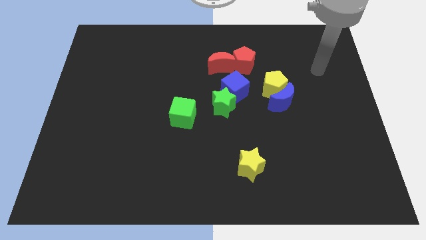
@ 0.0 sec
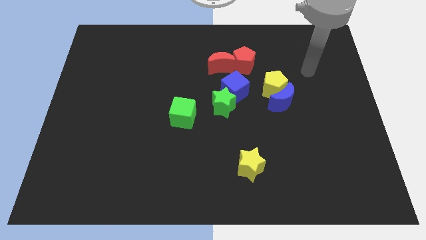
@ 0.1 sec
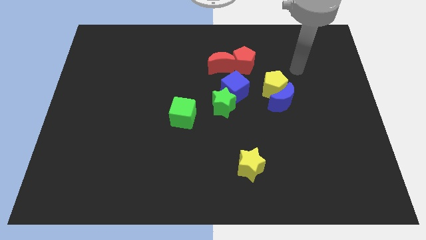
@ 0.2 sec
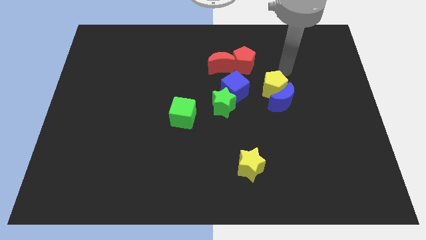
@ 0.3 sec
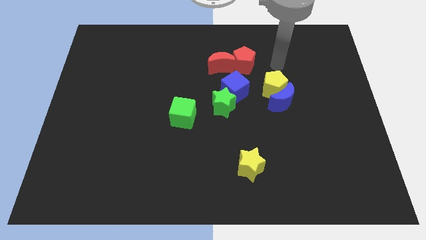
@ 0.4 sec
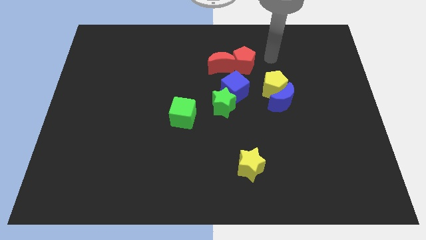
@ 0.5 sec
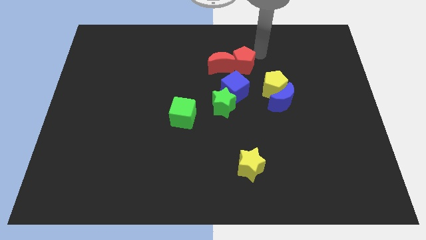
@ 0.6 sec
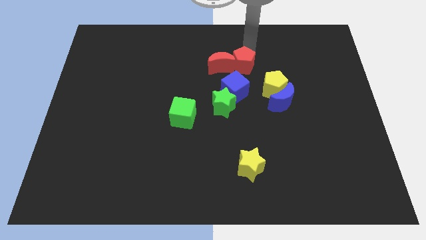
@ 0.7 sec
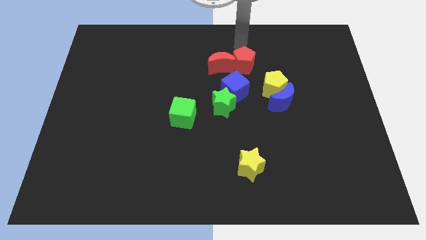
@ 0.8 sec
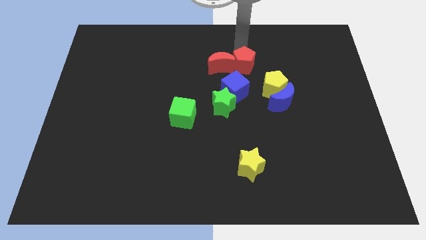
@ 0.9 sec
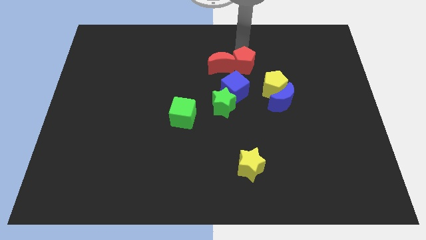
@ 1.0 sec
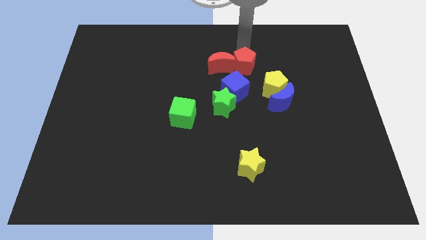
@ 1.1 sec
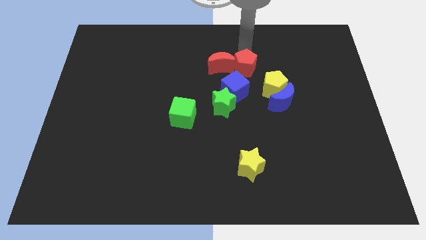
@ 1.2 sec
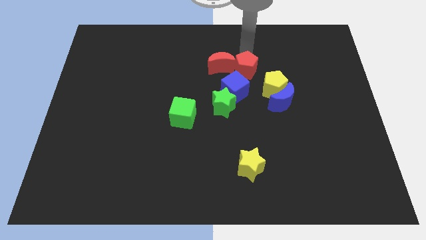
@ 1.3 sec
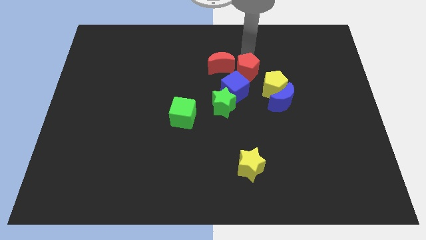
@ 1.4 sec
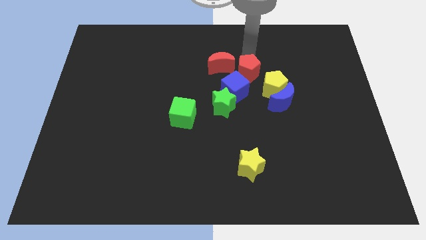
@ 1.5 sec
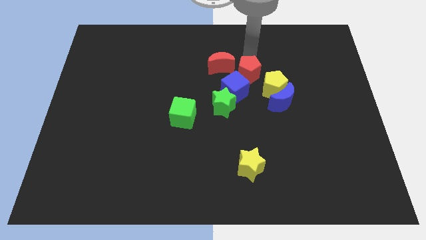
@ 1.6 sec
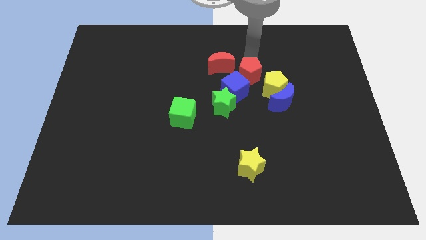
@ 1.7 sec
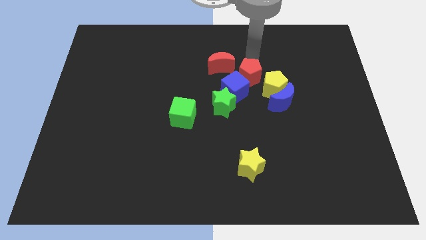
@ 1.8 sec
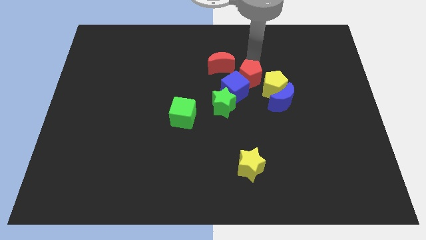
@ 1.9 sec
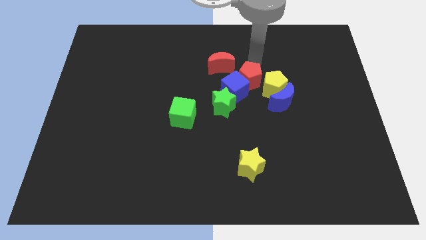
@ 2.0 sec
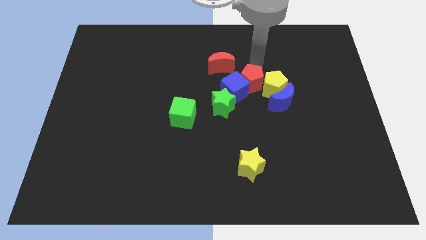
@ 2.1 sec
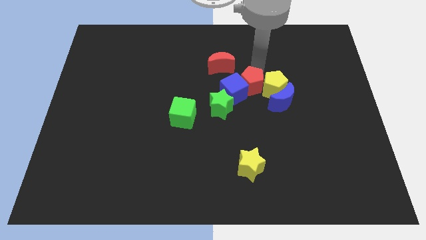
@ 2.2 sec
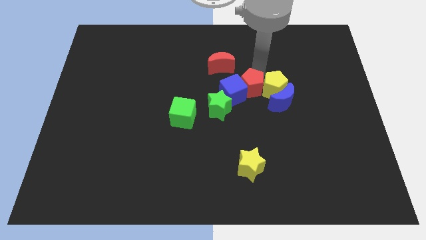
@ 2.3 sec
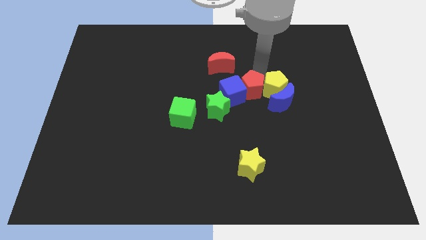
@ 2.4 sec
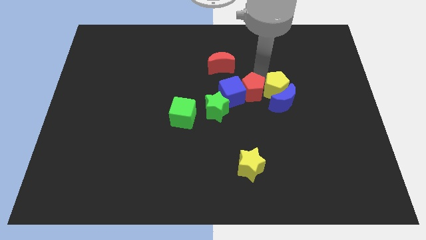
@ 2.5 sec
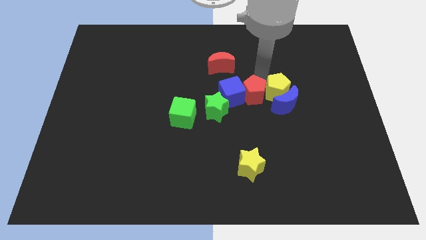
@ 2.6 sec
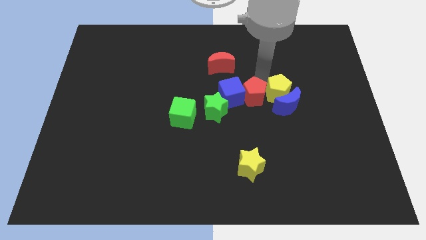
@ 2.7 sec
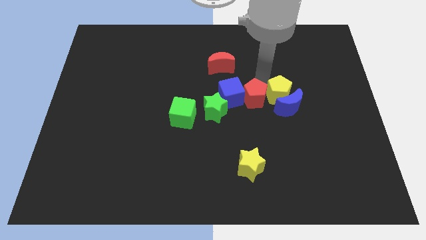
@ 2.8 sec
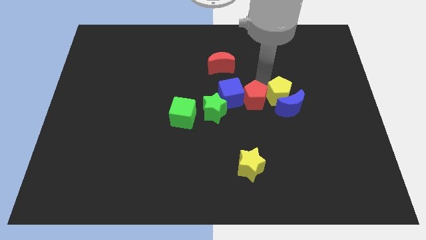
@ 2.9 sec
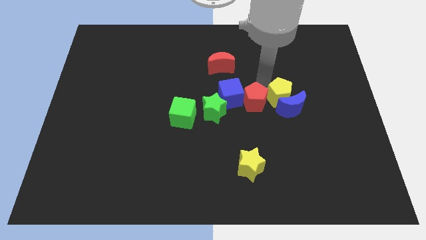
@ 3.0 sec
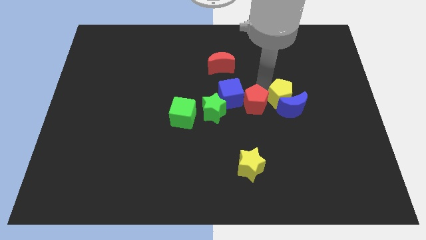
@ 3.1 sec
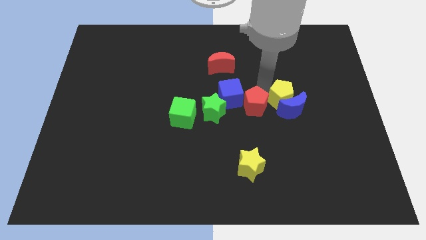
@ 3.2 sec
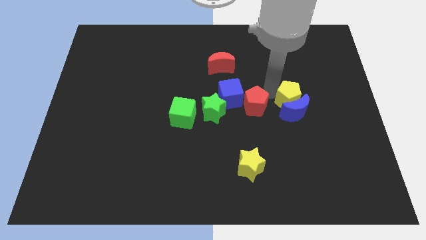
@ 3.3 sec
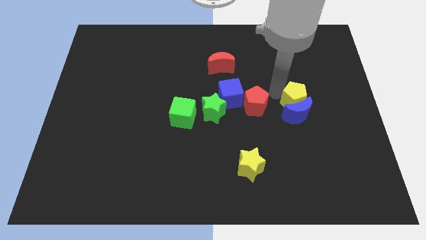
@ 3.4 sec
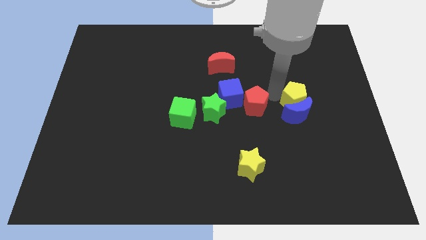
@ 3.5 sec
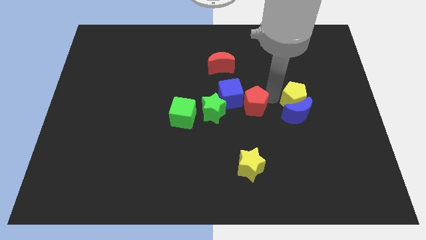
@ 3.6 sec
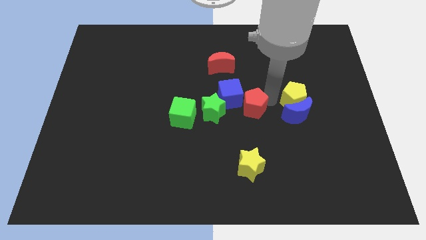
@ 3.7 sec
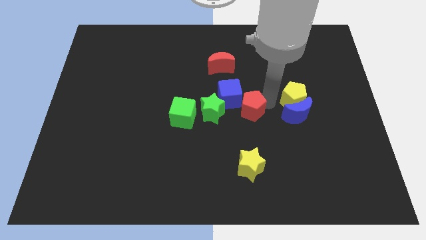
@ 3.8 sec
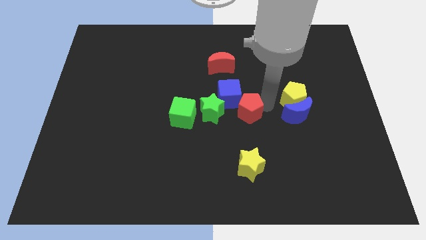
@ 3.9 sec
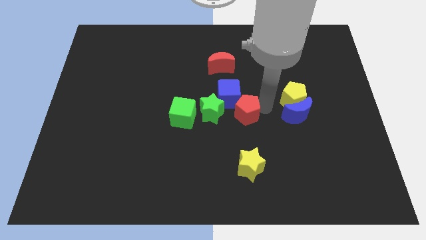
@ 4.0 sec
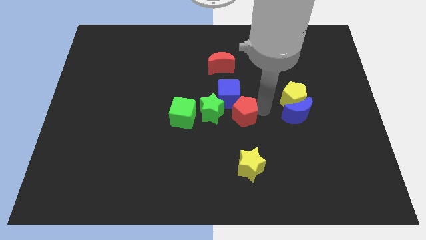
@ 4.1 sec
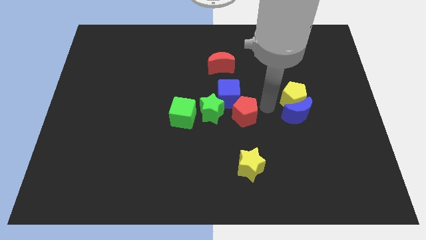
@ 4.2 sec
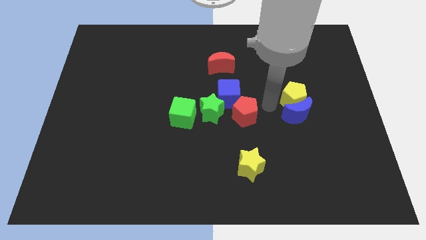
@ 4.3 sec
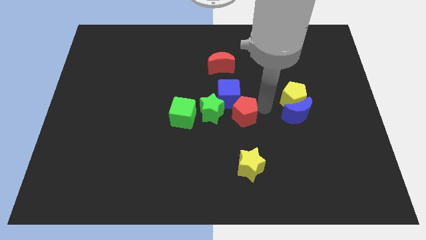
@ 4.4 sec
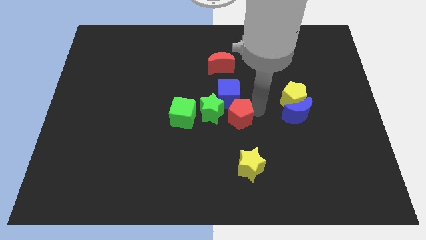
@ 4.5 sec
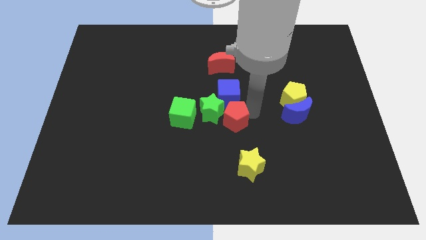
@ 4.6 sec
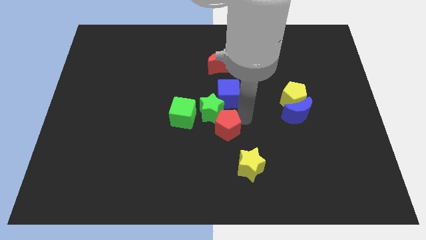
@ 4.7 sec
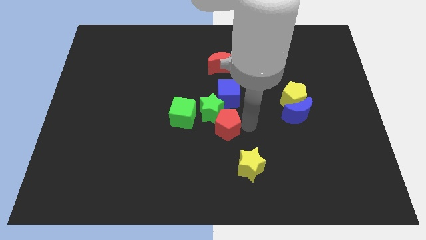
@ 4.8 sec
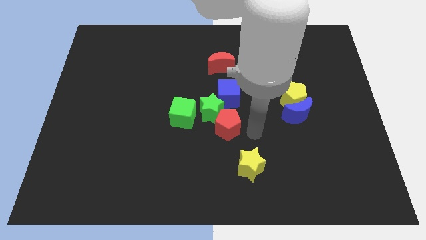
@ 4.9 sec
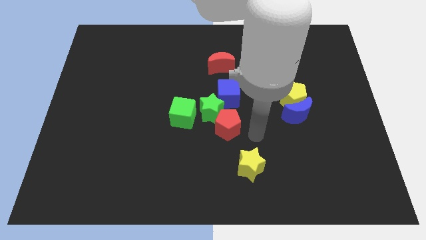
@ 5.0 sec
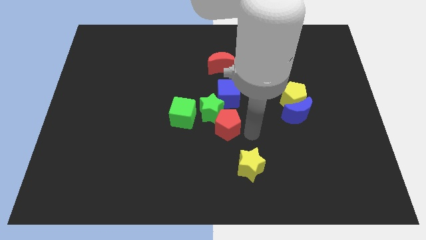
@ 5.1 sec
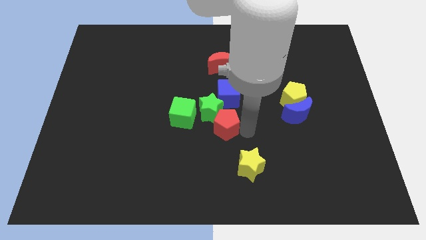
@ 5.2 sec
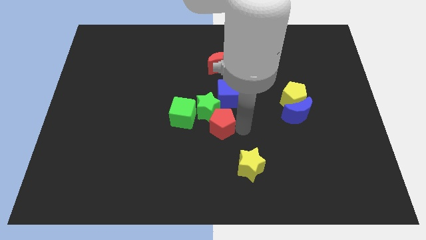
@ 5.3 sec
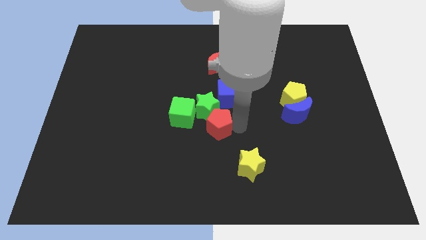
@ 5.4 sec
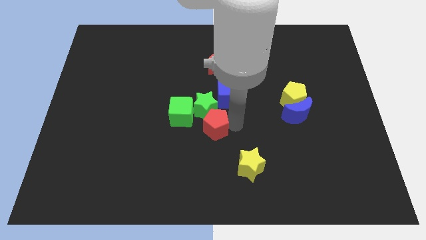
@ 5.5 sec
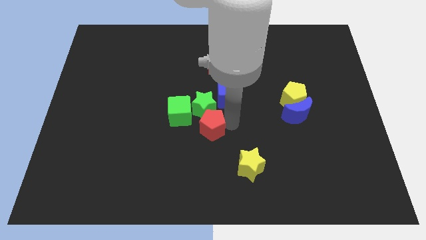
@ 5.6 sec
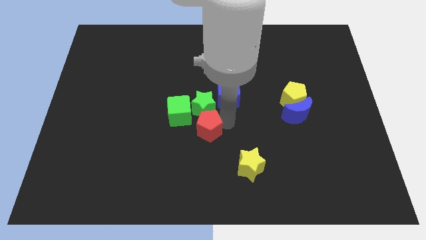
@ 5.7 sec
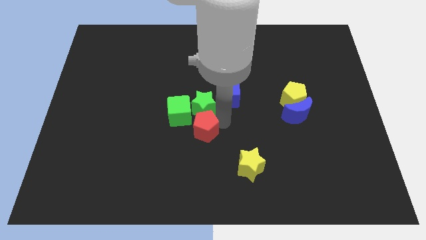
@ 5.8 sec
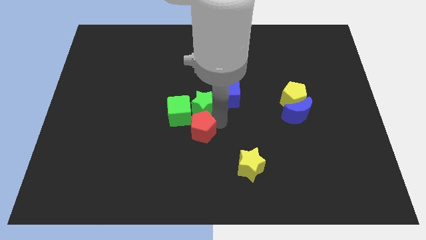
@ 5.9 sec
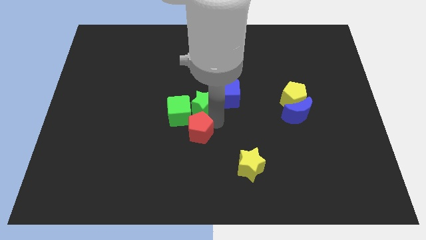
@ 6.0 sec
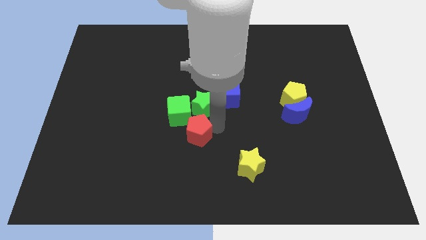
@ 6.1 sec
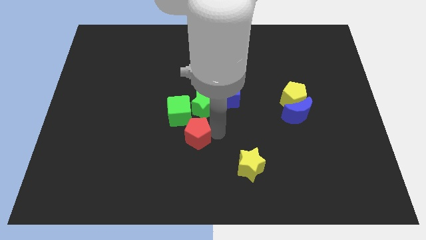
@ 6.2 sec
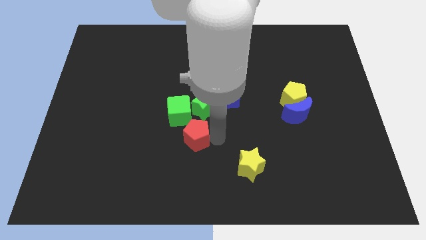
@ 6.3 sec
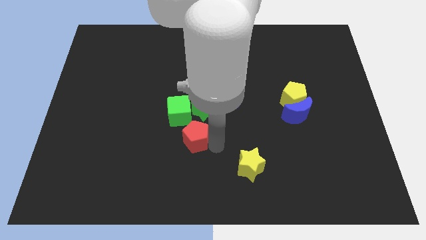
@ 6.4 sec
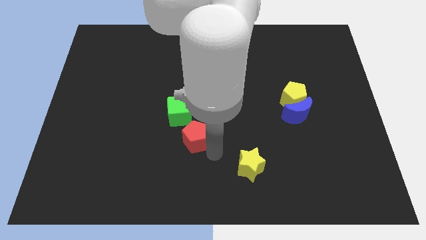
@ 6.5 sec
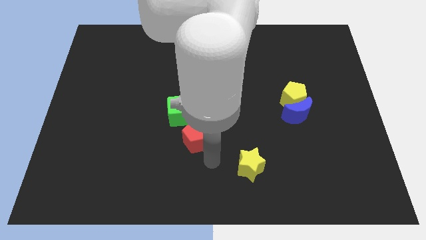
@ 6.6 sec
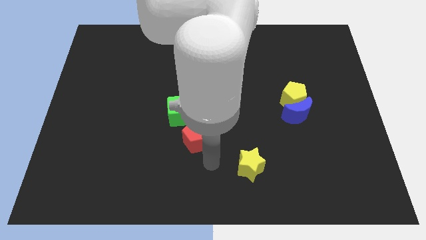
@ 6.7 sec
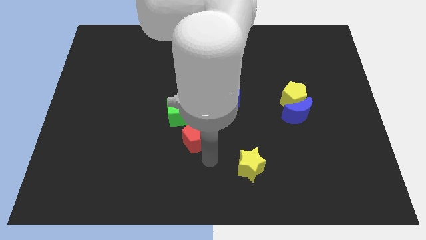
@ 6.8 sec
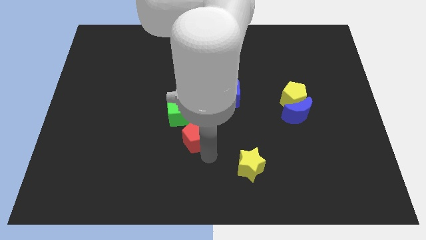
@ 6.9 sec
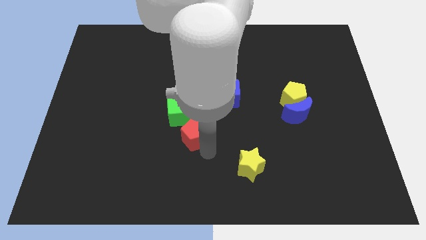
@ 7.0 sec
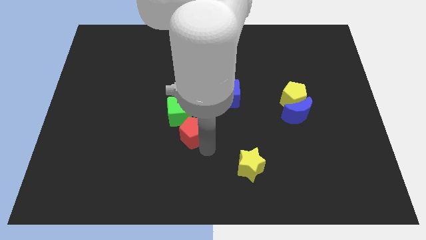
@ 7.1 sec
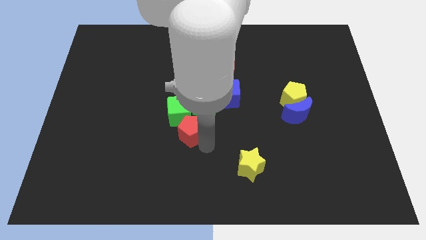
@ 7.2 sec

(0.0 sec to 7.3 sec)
slide the red pentagon towards the green cube
